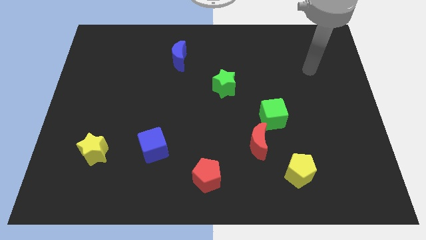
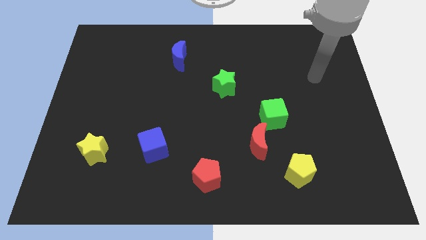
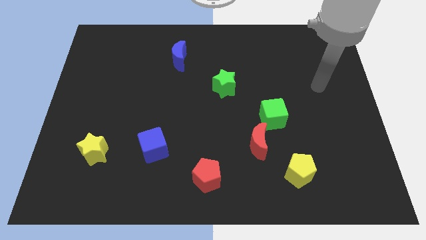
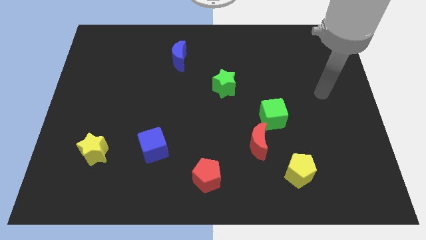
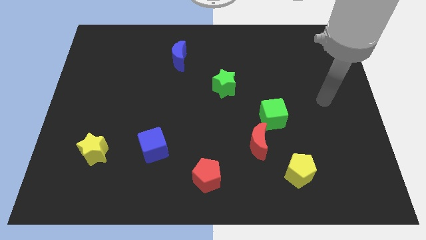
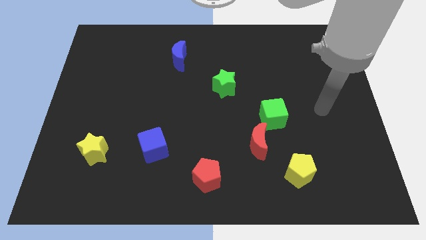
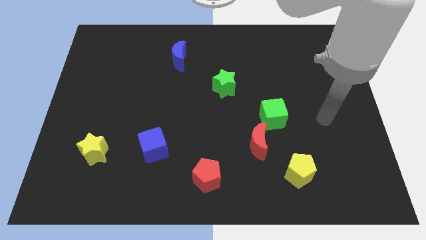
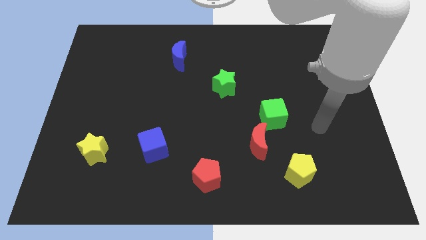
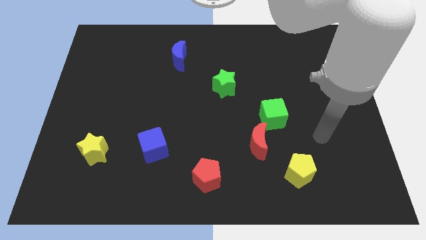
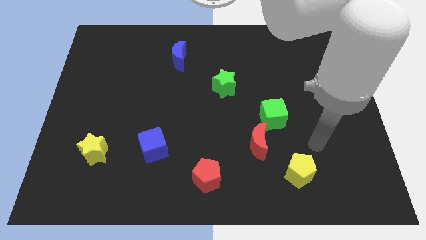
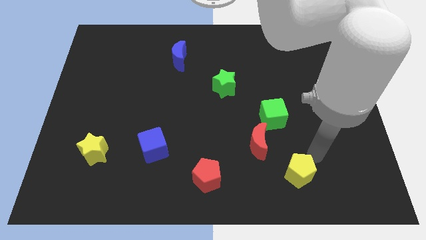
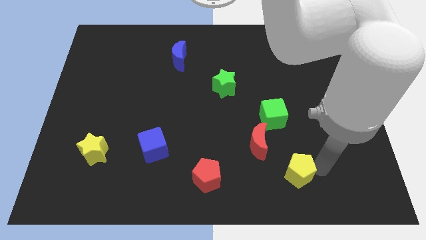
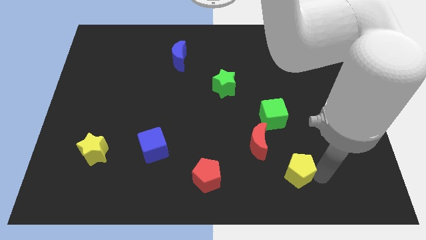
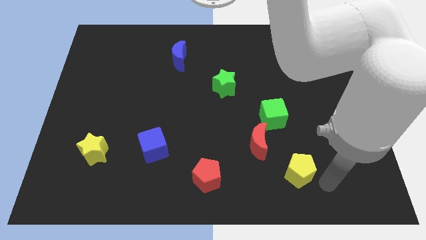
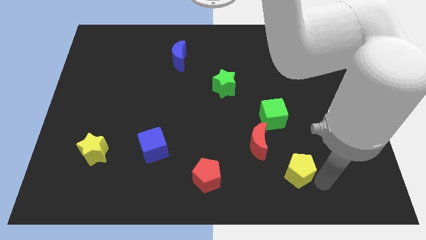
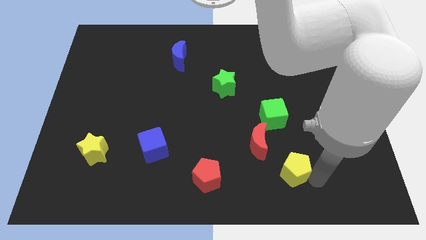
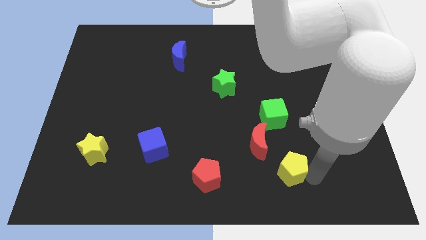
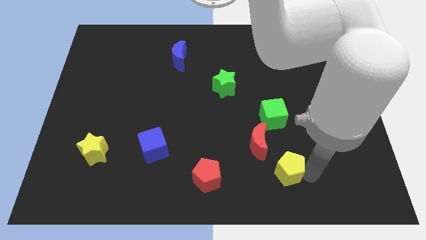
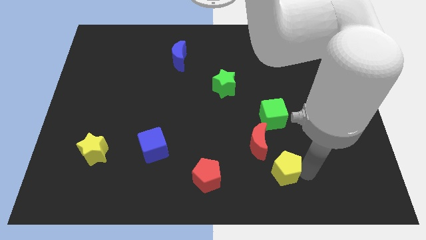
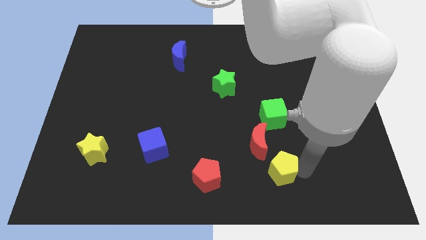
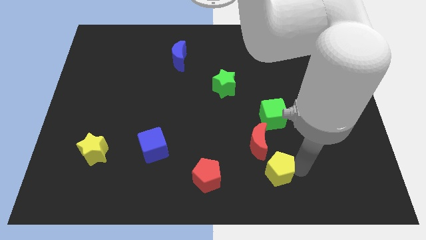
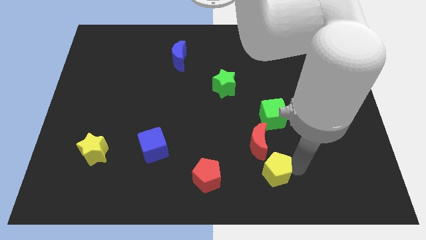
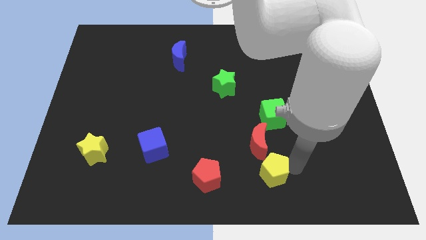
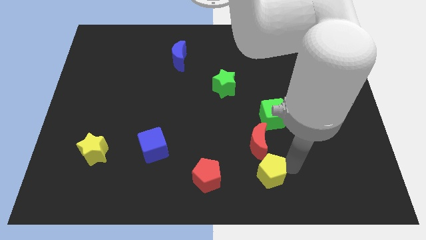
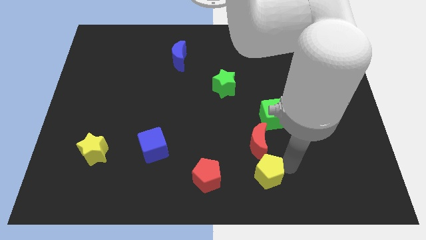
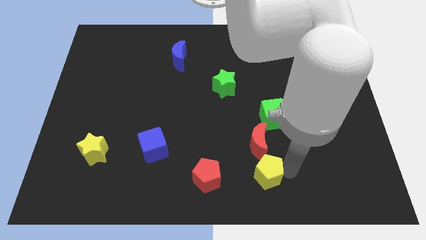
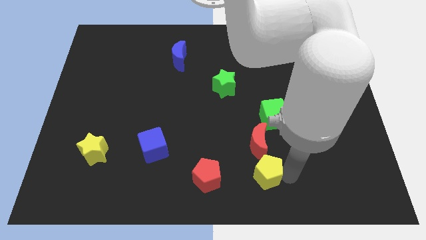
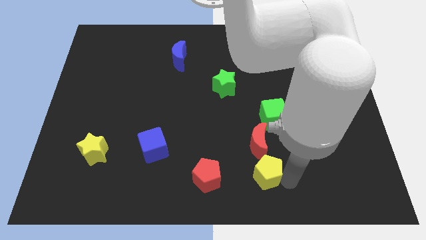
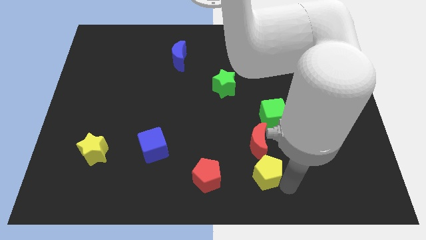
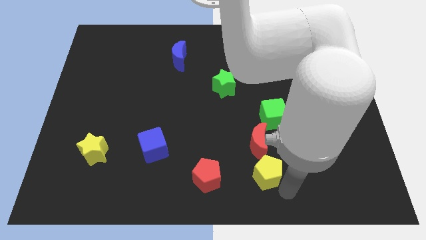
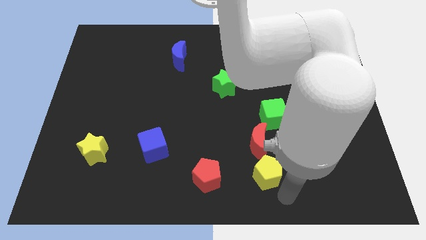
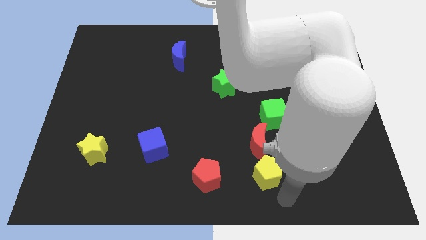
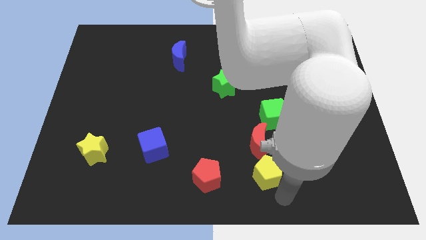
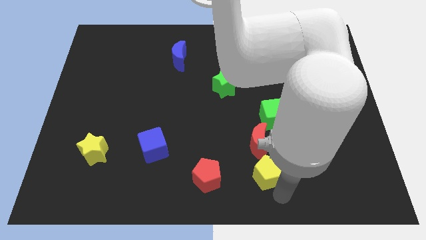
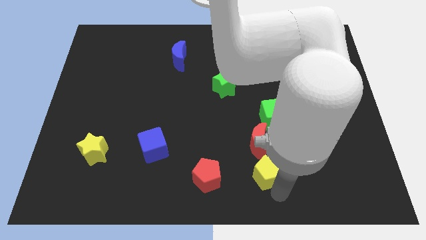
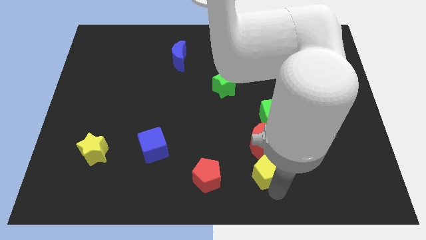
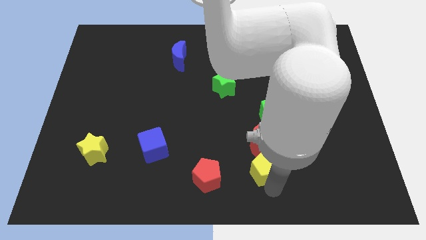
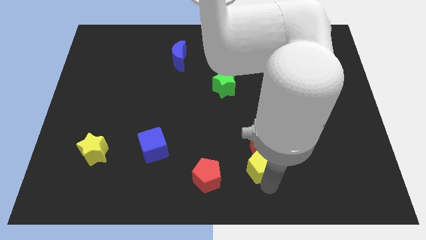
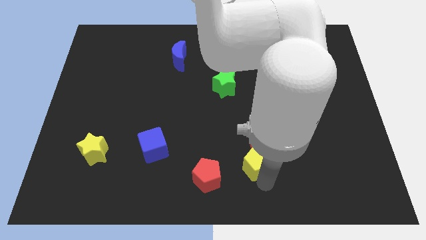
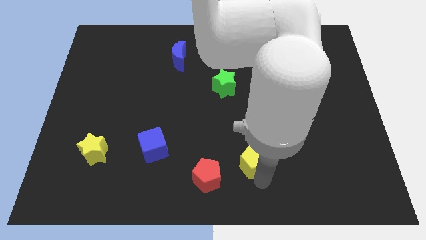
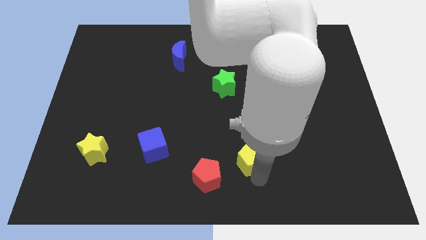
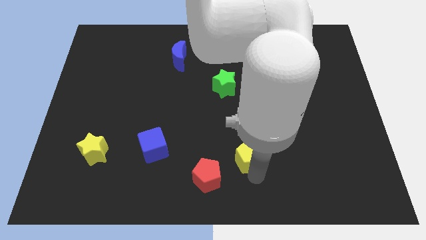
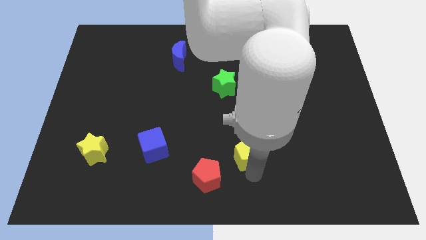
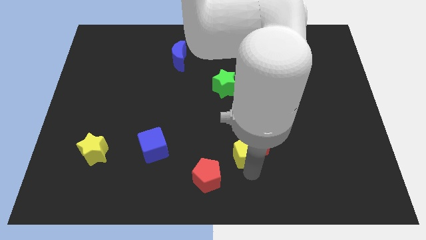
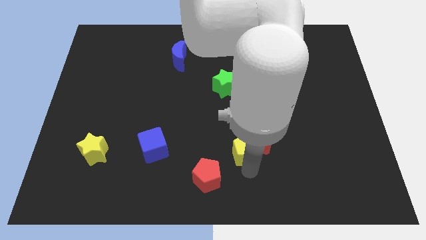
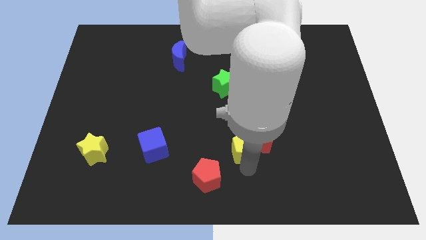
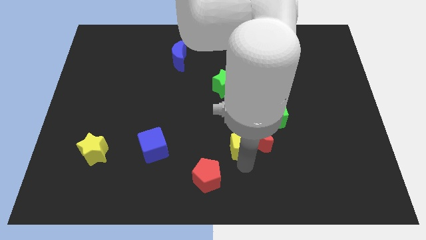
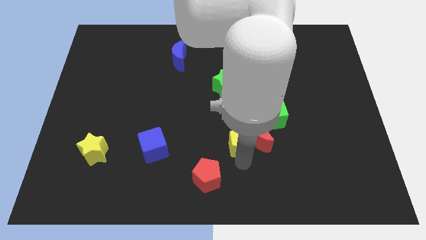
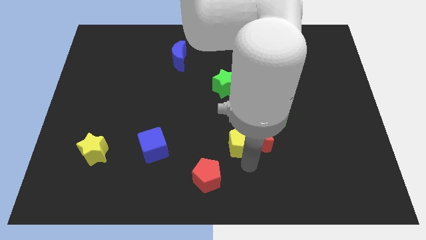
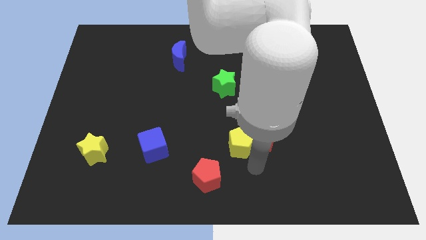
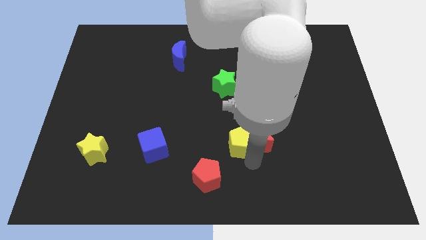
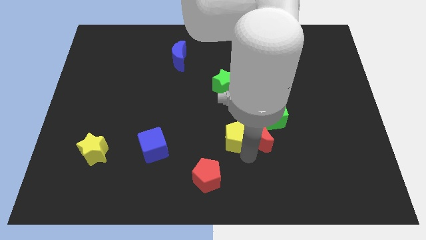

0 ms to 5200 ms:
push the yellow pentagon below the green star

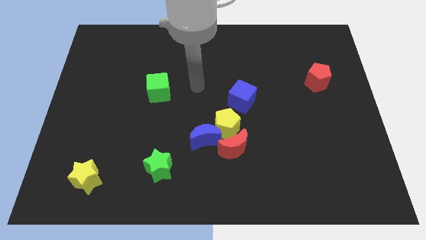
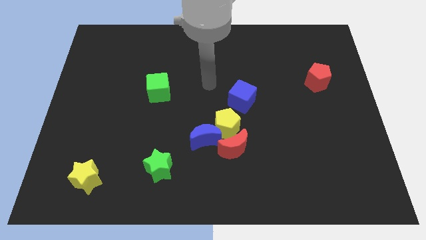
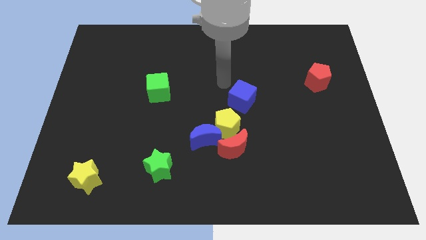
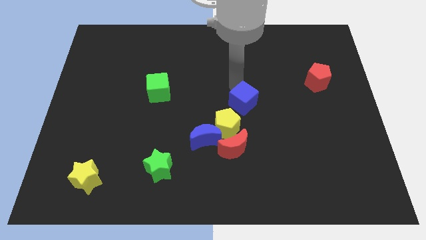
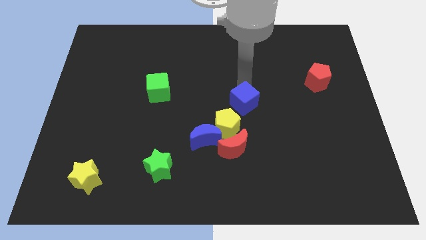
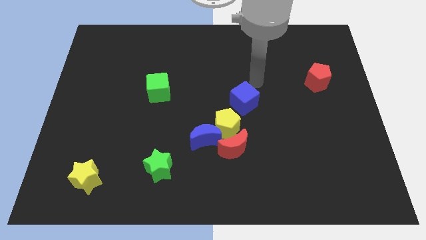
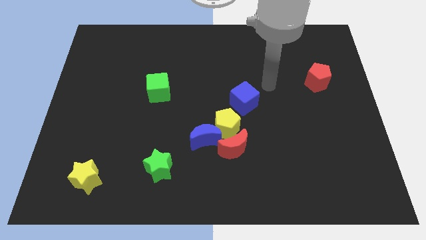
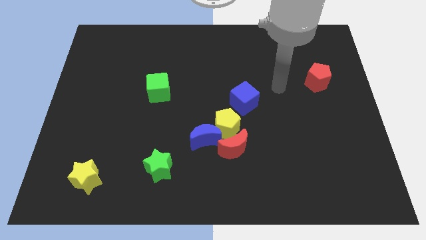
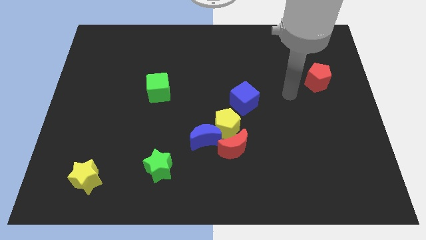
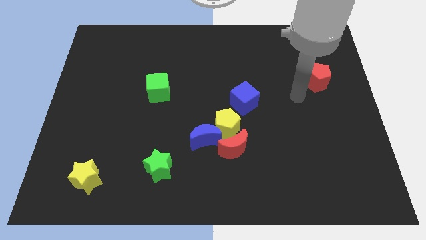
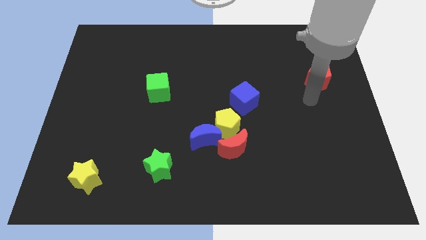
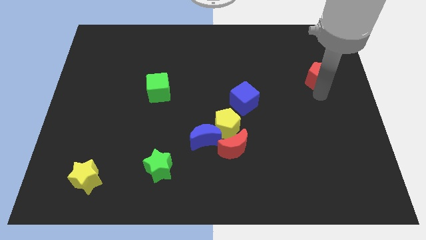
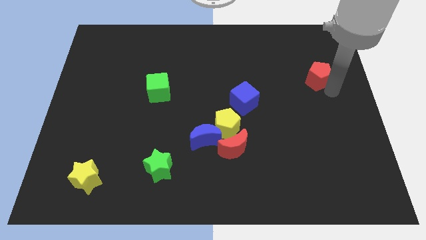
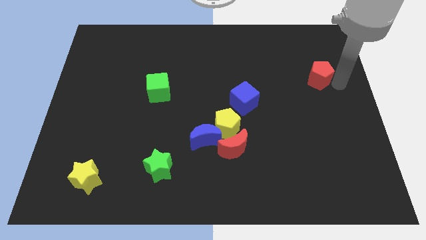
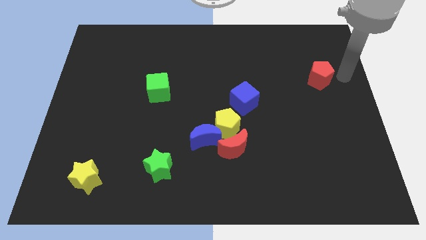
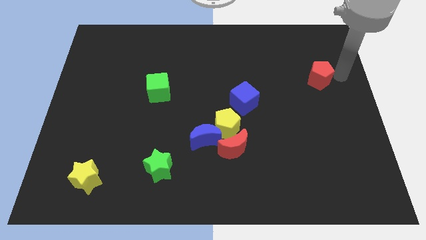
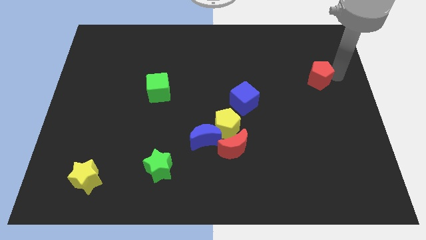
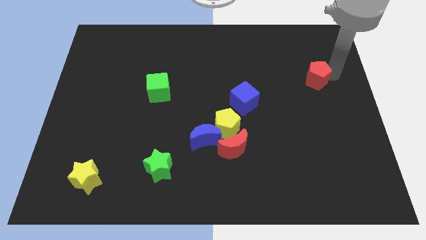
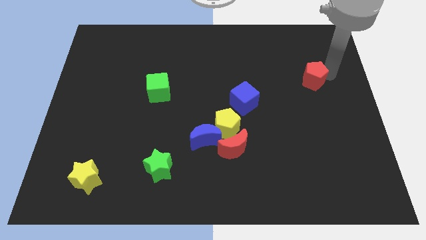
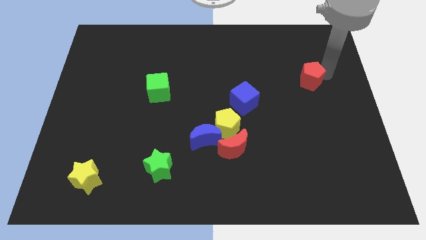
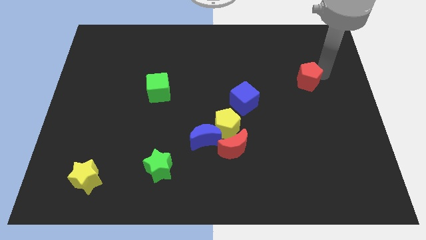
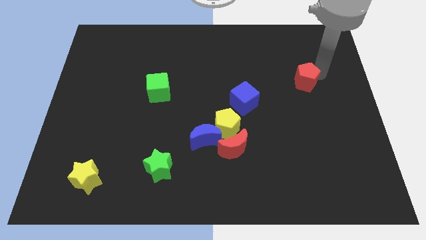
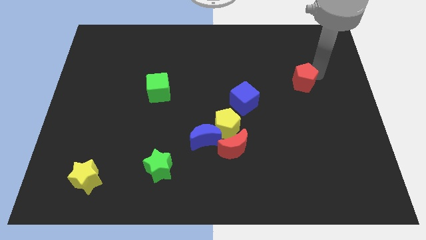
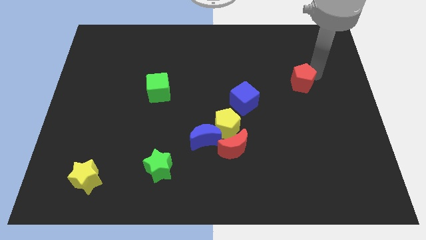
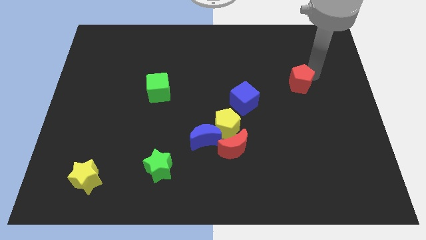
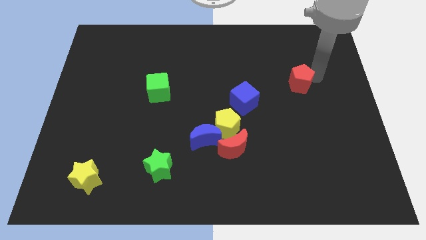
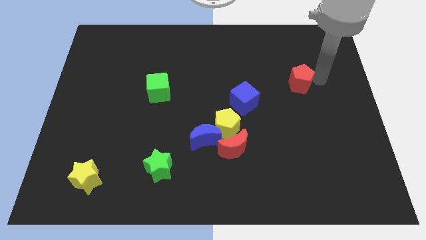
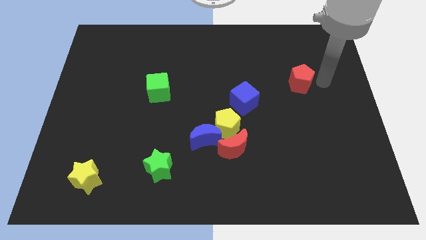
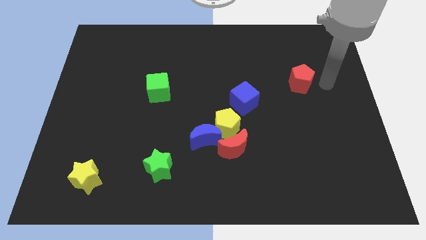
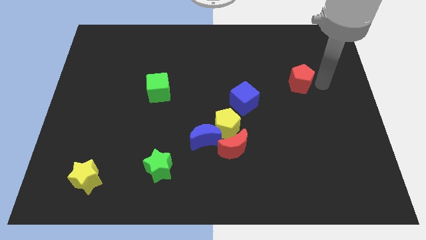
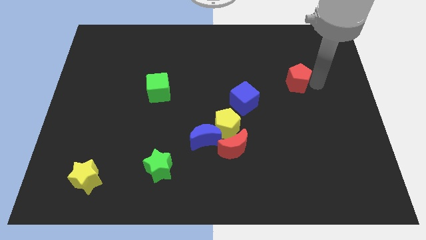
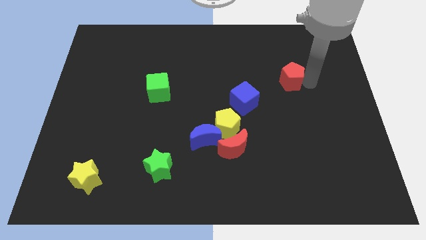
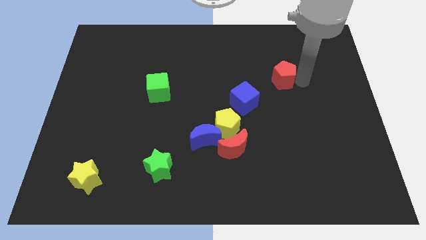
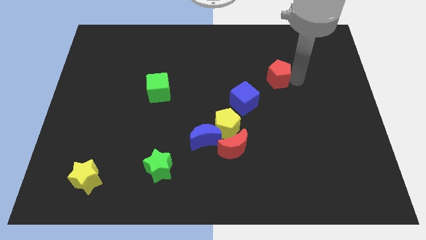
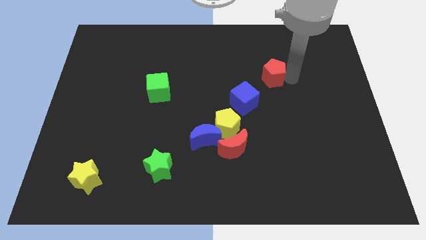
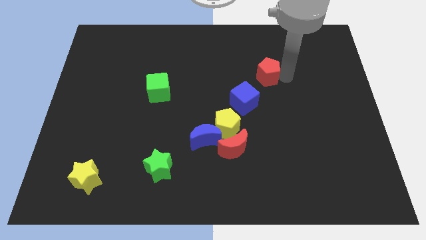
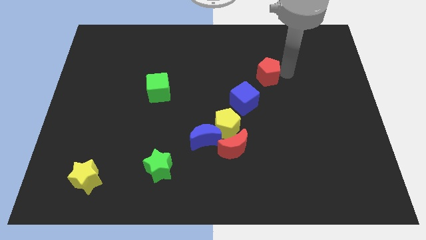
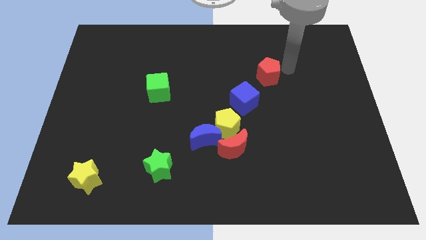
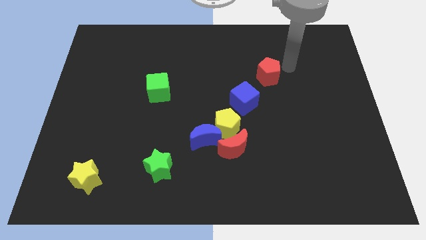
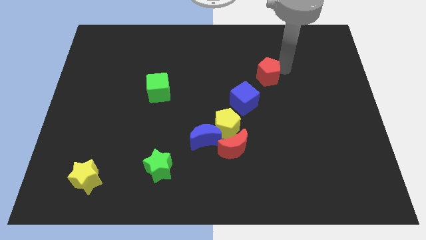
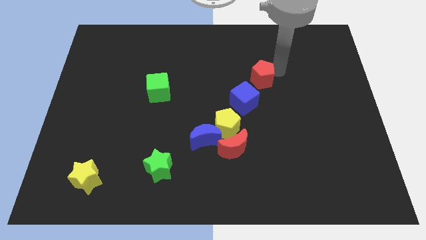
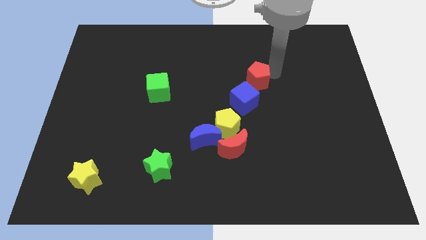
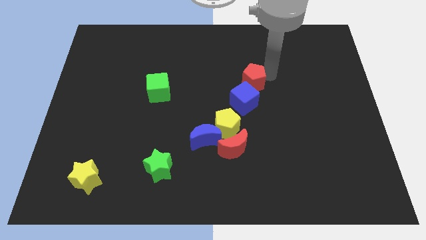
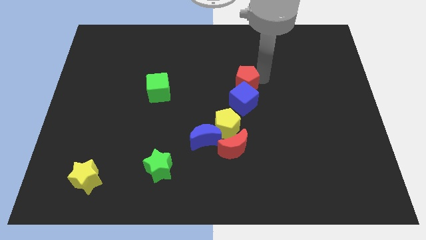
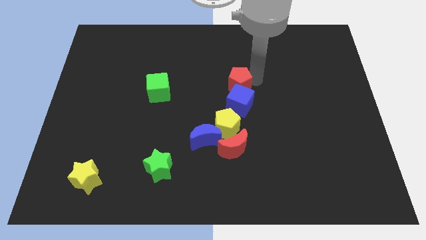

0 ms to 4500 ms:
slide the red pentagon above the yellow pentagon
